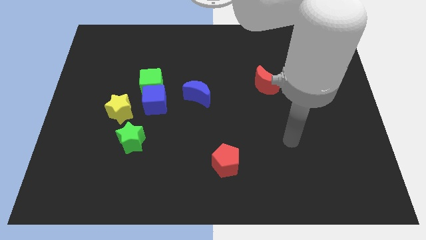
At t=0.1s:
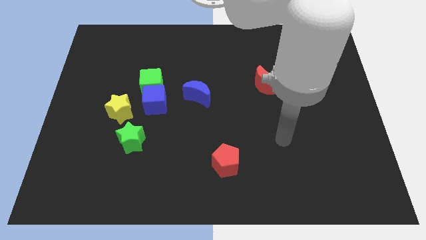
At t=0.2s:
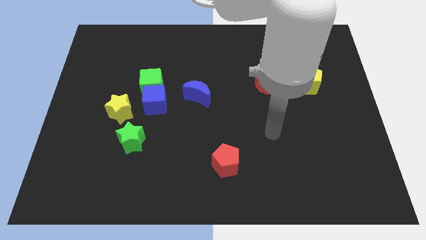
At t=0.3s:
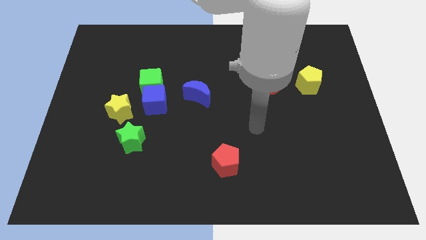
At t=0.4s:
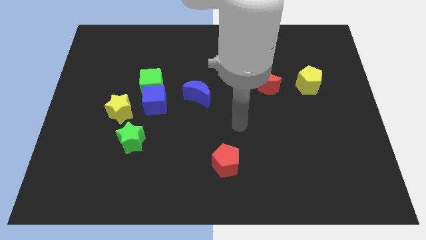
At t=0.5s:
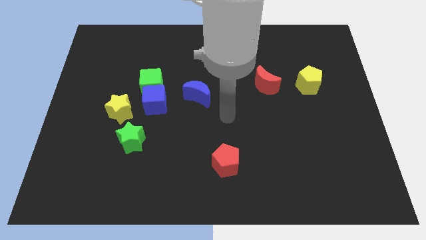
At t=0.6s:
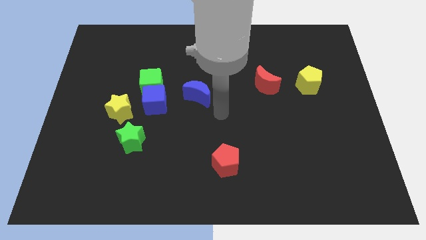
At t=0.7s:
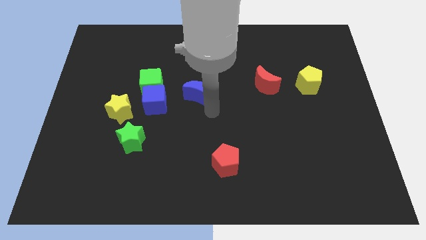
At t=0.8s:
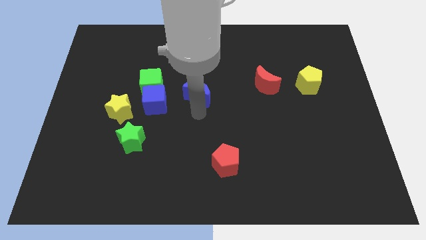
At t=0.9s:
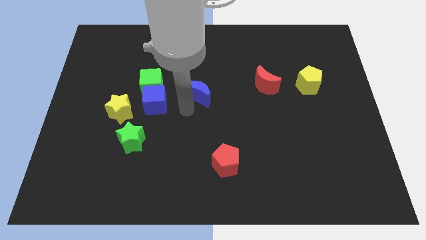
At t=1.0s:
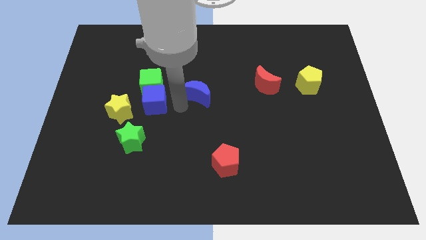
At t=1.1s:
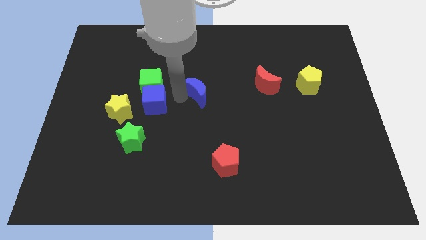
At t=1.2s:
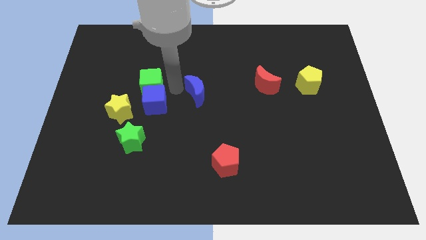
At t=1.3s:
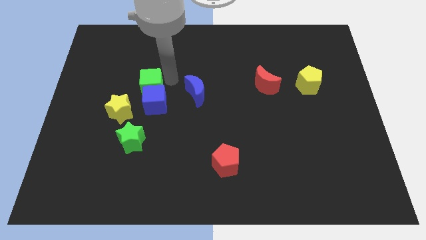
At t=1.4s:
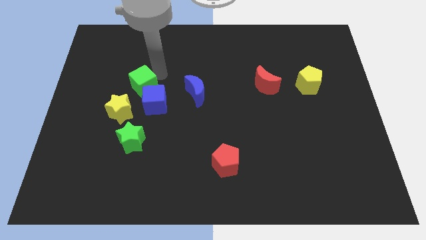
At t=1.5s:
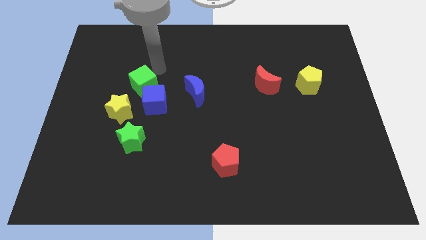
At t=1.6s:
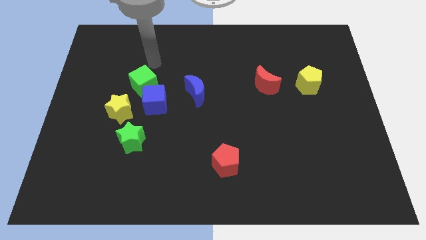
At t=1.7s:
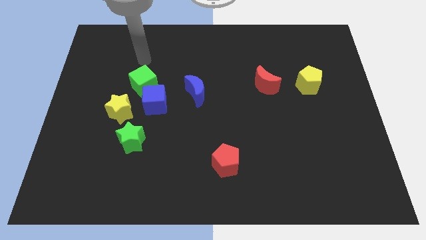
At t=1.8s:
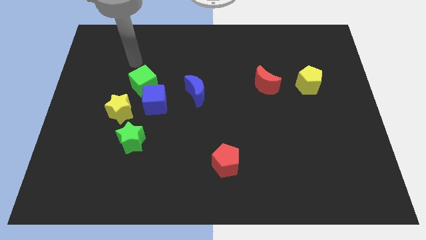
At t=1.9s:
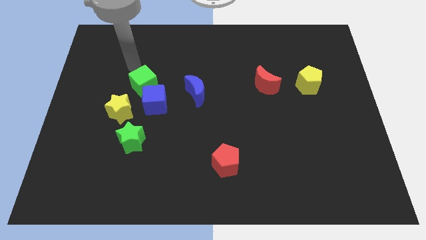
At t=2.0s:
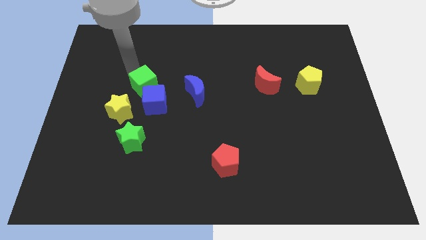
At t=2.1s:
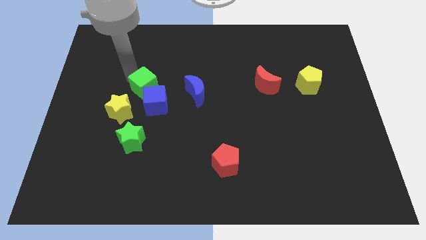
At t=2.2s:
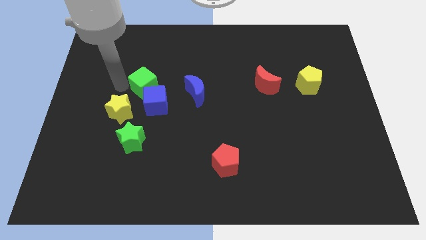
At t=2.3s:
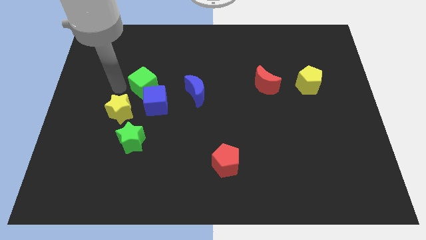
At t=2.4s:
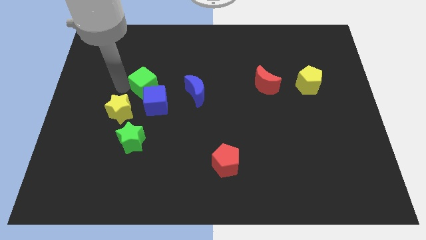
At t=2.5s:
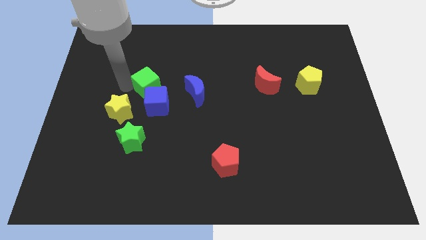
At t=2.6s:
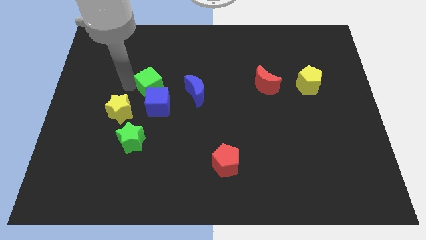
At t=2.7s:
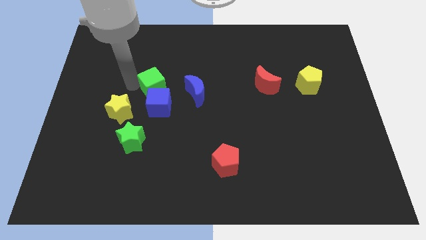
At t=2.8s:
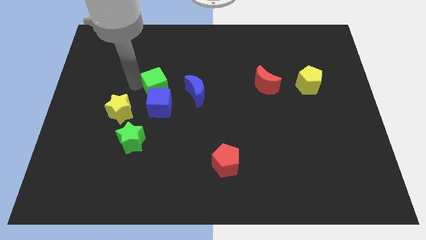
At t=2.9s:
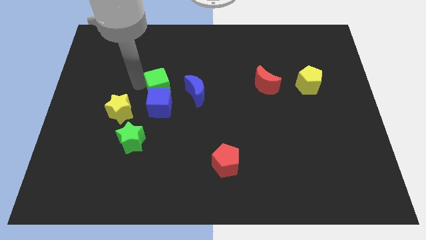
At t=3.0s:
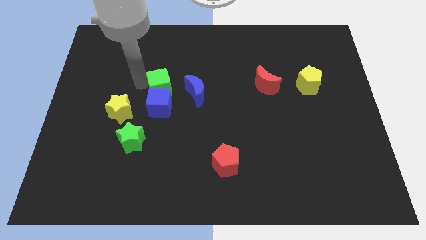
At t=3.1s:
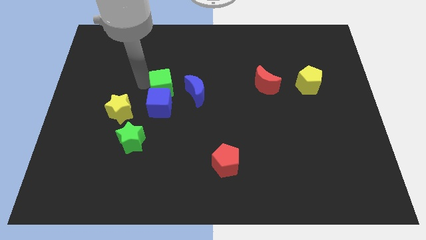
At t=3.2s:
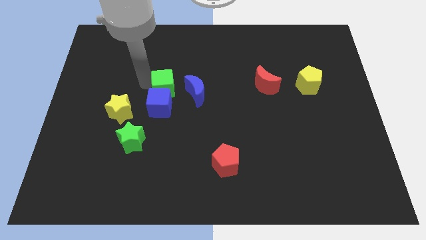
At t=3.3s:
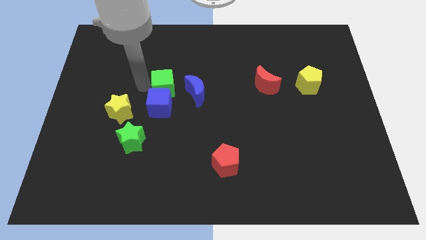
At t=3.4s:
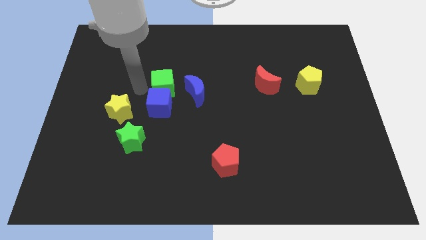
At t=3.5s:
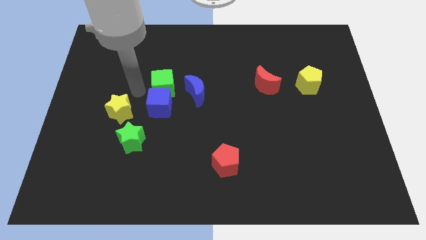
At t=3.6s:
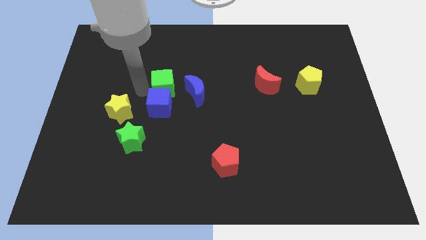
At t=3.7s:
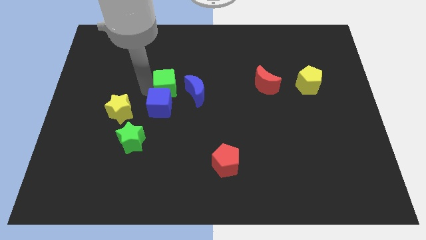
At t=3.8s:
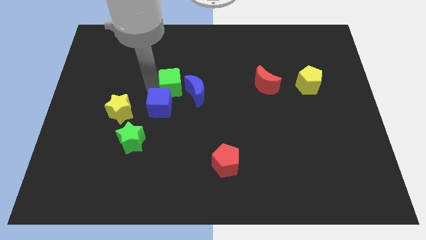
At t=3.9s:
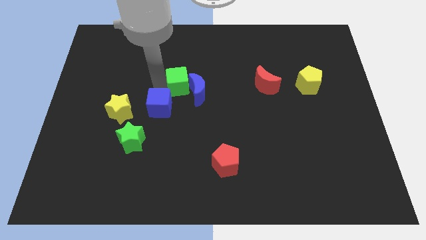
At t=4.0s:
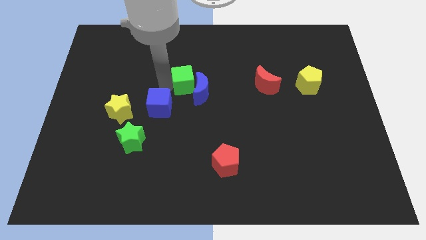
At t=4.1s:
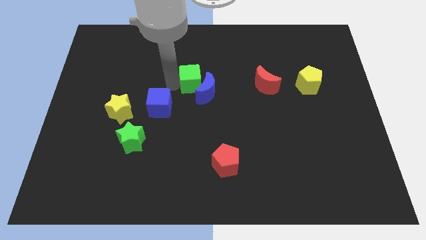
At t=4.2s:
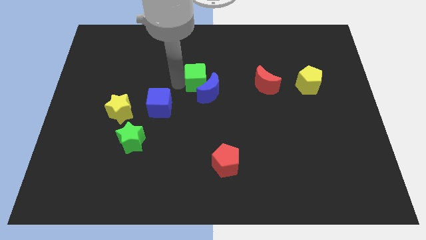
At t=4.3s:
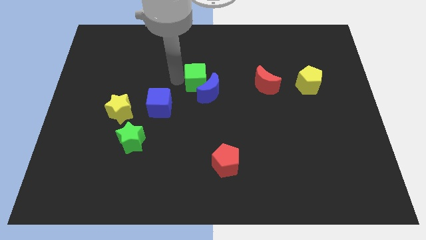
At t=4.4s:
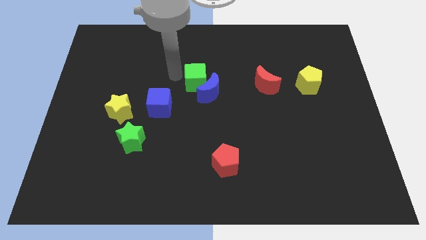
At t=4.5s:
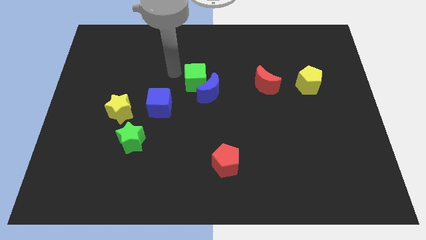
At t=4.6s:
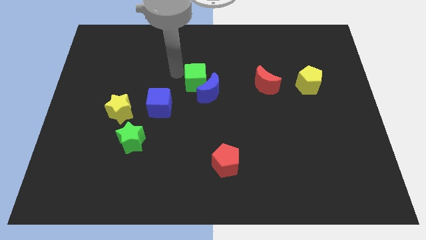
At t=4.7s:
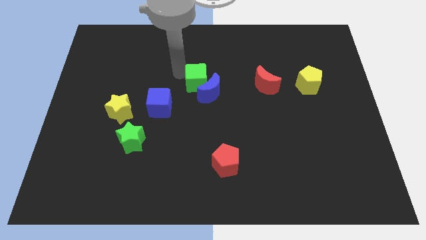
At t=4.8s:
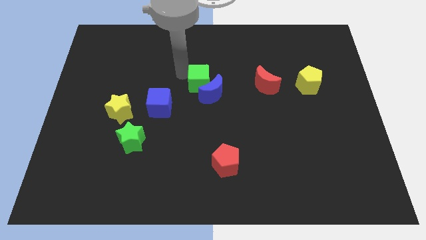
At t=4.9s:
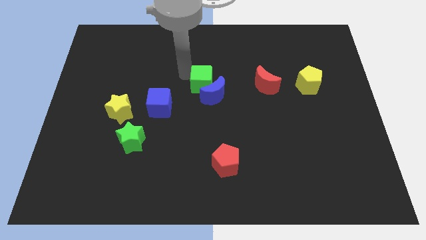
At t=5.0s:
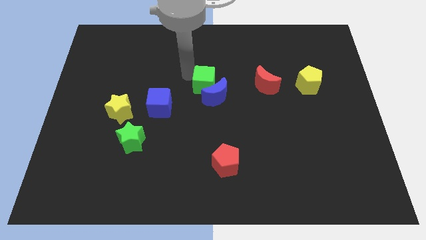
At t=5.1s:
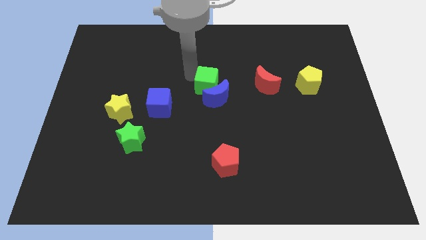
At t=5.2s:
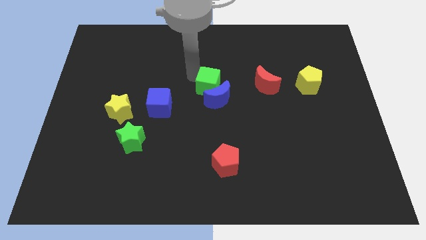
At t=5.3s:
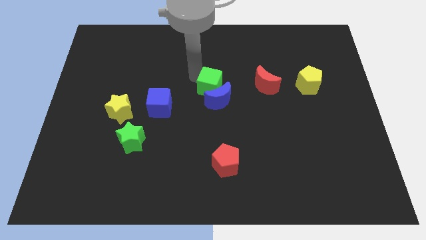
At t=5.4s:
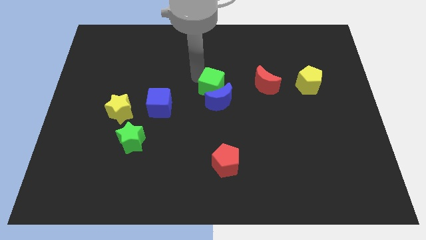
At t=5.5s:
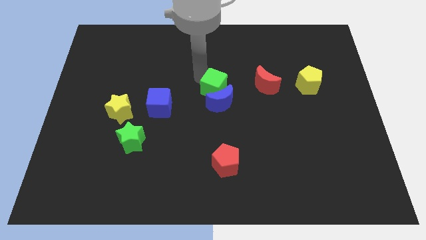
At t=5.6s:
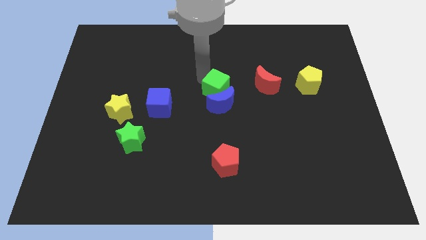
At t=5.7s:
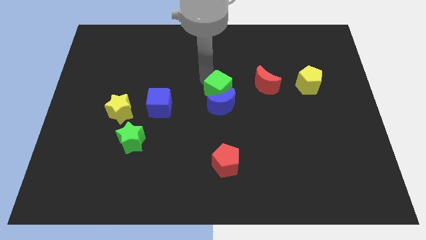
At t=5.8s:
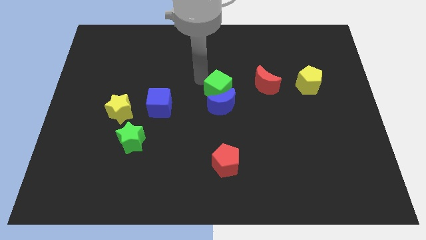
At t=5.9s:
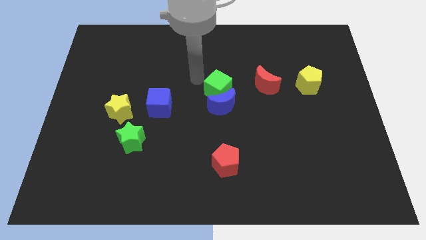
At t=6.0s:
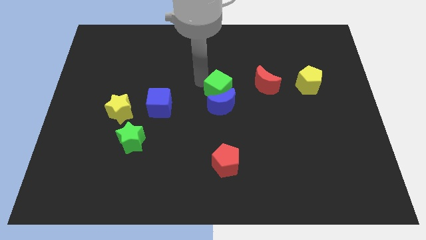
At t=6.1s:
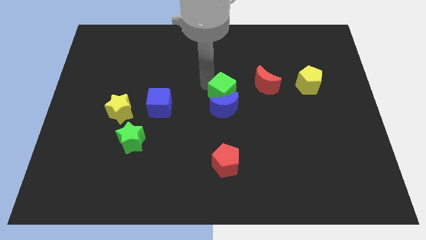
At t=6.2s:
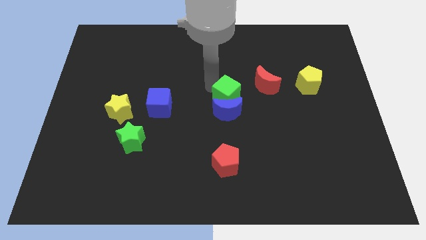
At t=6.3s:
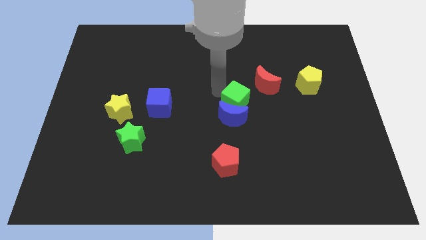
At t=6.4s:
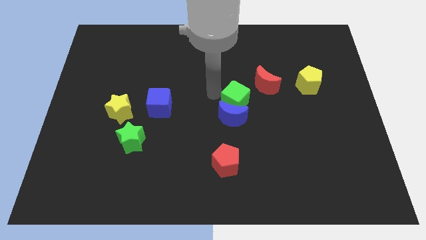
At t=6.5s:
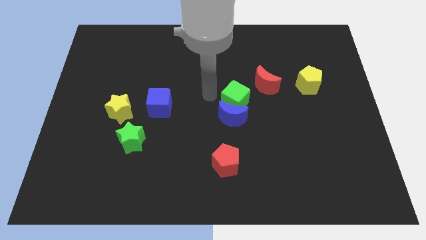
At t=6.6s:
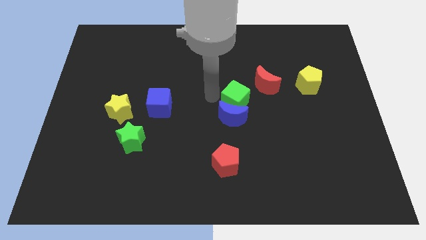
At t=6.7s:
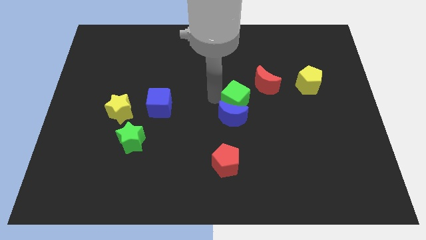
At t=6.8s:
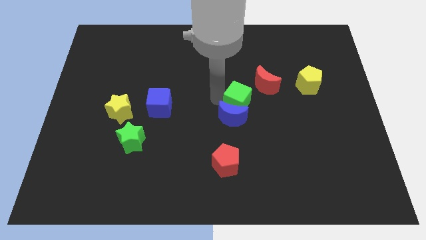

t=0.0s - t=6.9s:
move the green cube right

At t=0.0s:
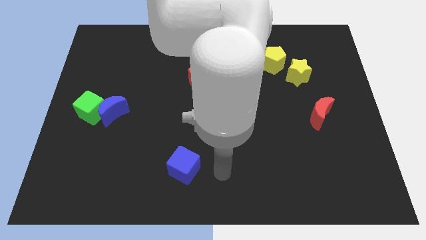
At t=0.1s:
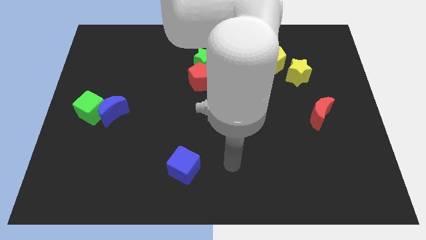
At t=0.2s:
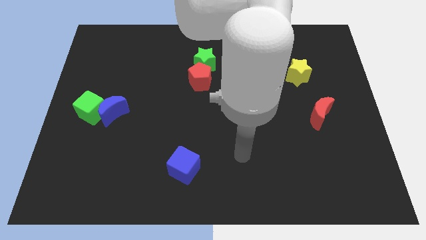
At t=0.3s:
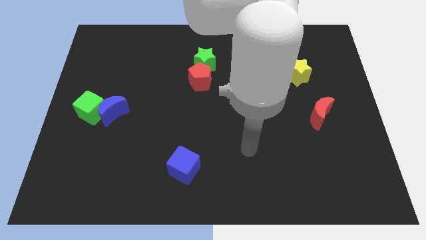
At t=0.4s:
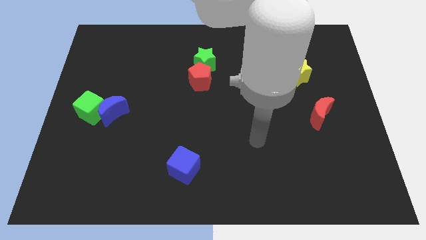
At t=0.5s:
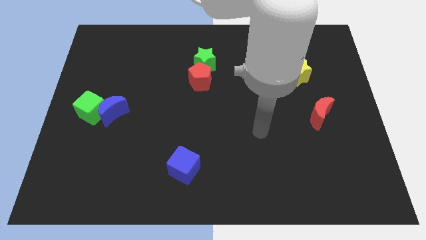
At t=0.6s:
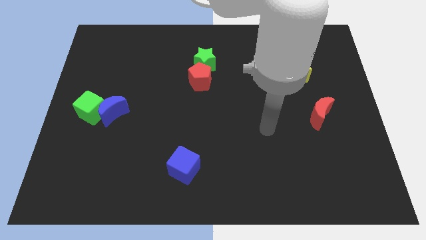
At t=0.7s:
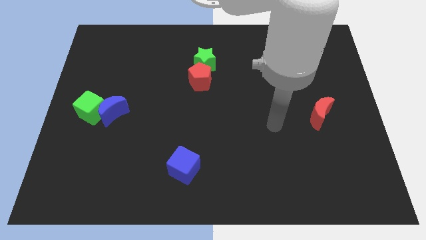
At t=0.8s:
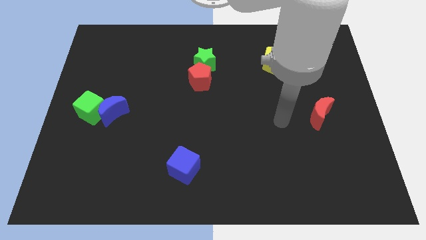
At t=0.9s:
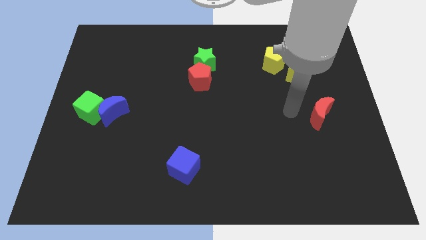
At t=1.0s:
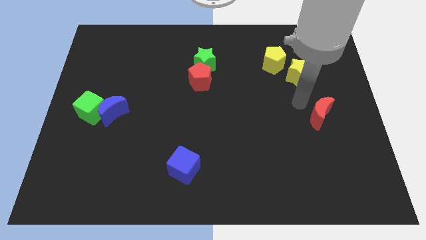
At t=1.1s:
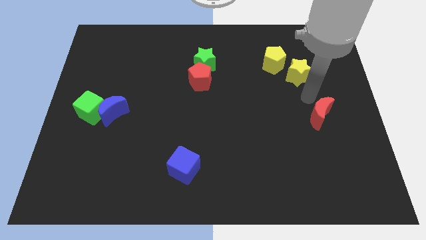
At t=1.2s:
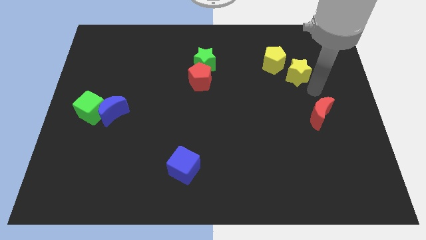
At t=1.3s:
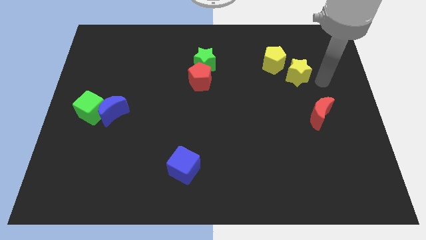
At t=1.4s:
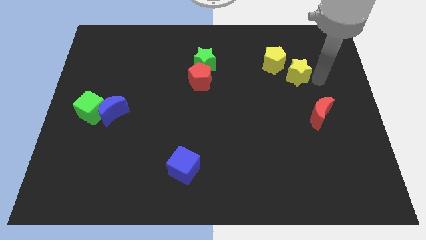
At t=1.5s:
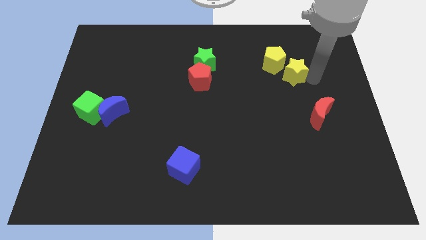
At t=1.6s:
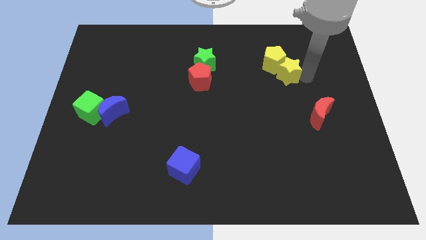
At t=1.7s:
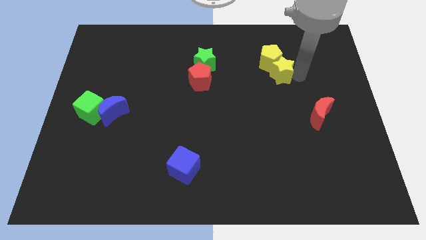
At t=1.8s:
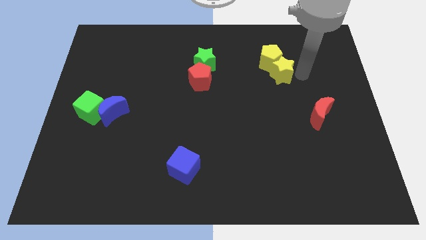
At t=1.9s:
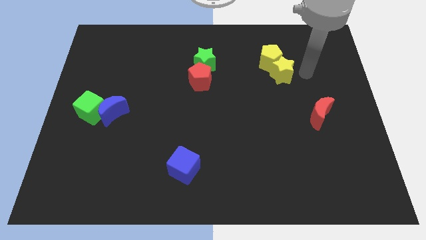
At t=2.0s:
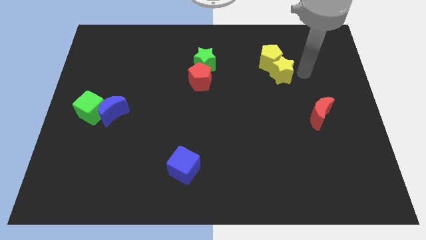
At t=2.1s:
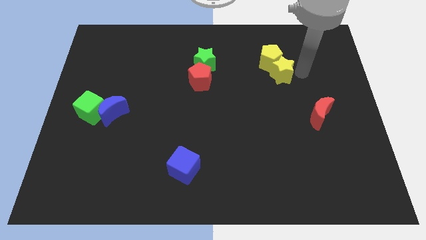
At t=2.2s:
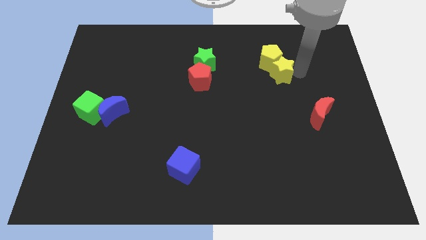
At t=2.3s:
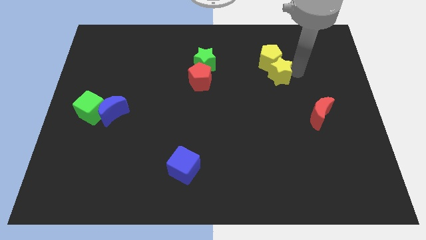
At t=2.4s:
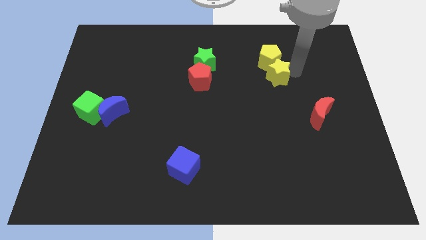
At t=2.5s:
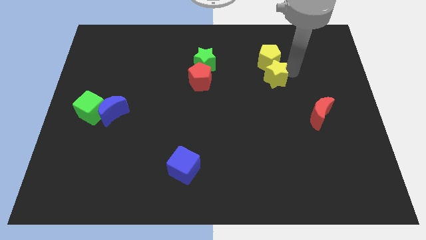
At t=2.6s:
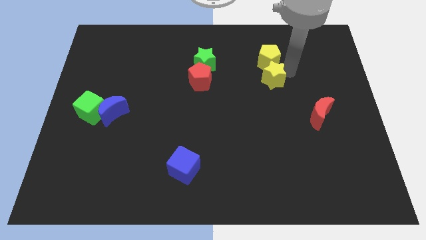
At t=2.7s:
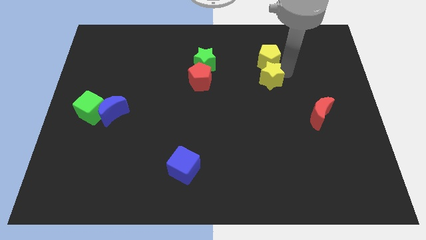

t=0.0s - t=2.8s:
push the yellow star somewhat left
